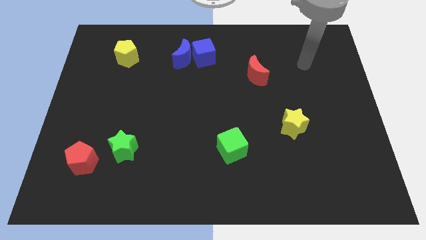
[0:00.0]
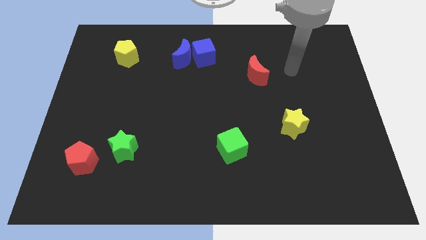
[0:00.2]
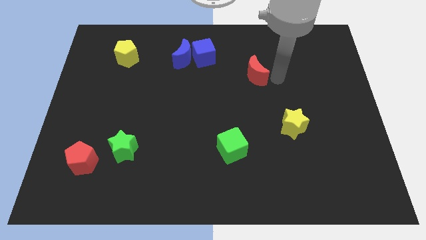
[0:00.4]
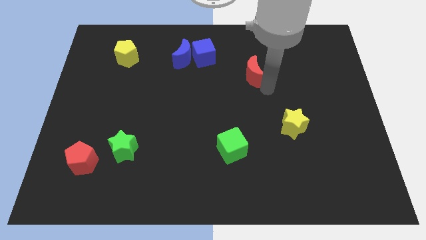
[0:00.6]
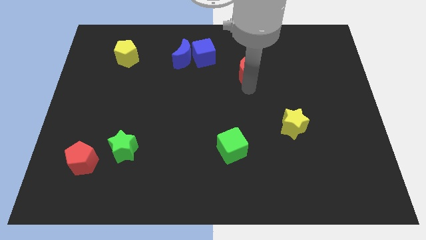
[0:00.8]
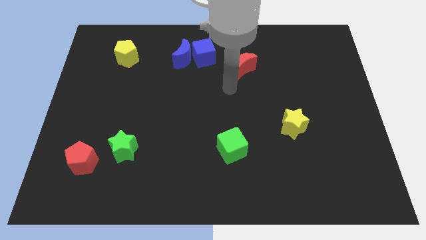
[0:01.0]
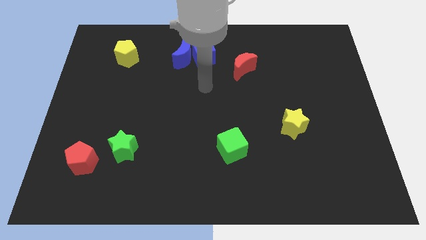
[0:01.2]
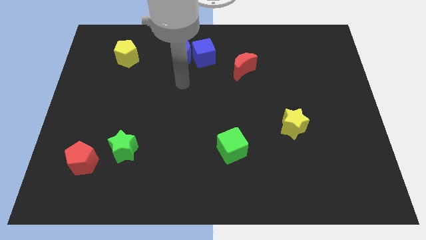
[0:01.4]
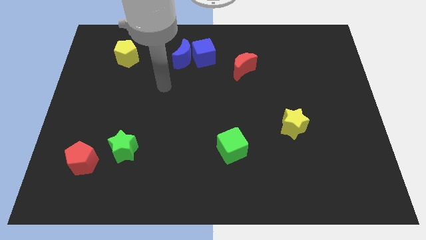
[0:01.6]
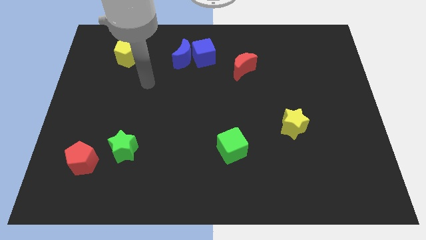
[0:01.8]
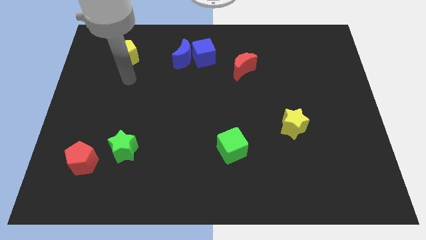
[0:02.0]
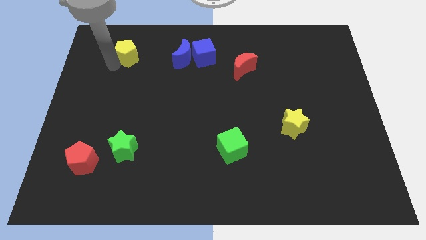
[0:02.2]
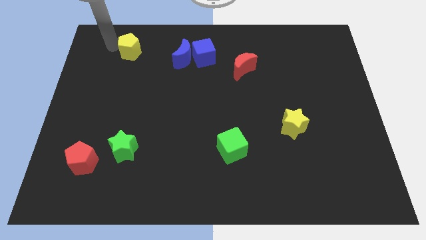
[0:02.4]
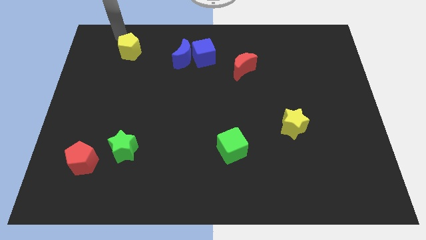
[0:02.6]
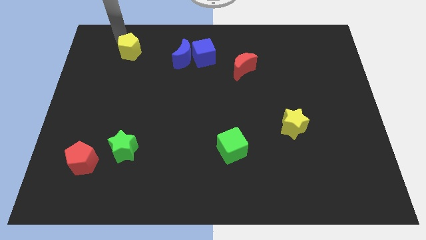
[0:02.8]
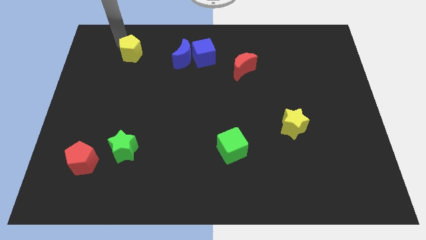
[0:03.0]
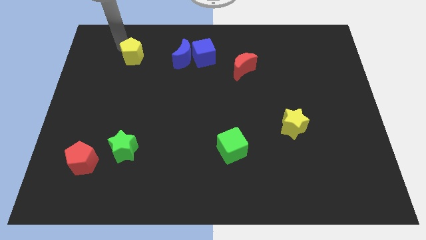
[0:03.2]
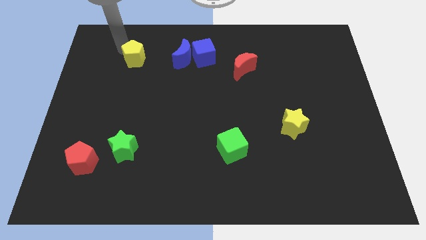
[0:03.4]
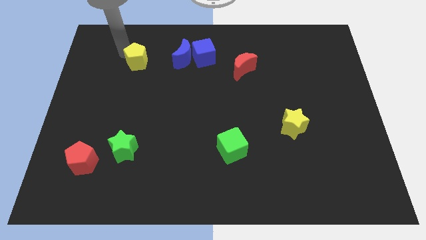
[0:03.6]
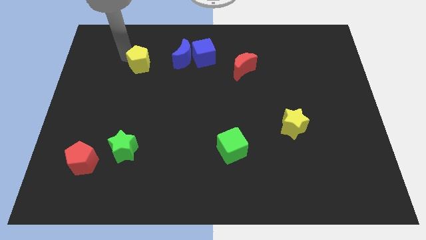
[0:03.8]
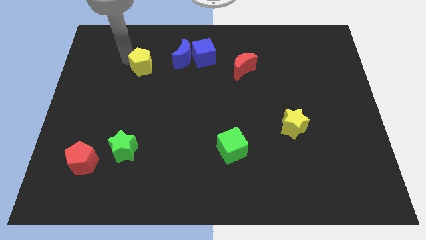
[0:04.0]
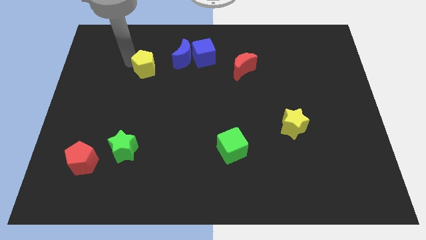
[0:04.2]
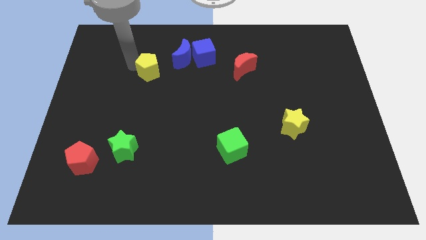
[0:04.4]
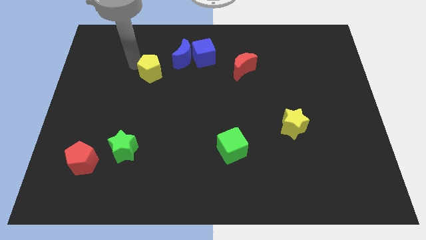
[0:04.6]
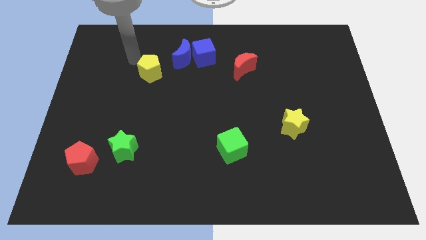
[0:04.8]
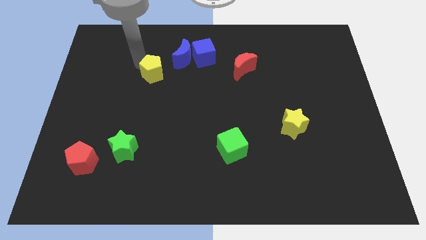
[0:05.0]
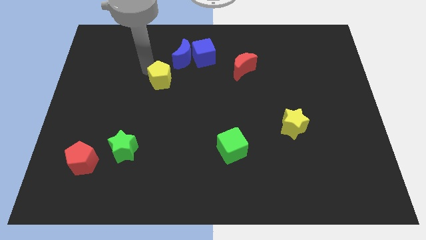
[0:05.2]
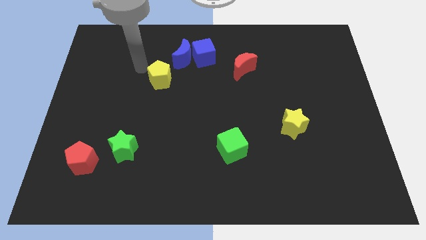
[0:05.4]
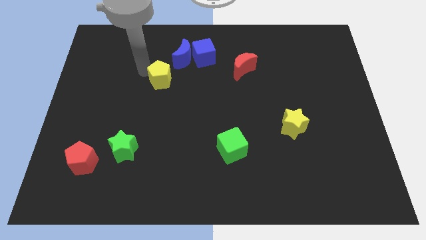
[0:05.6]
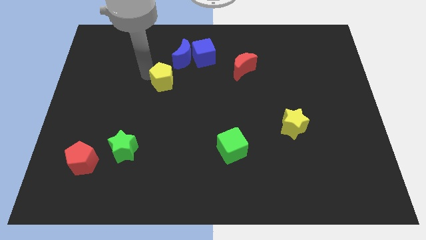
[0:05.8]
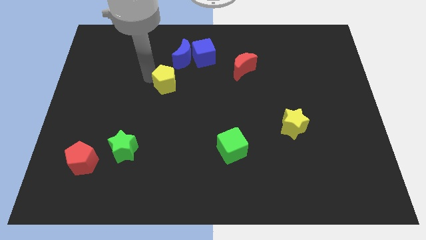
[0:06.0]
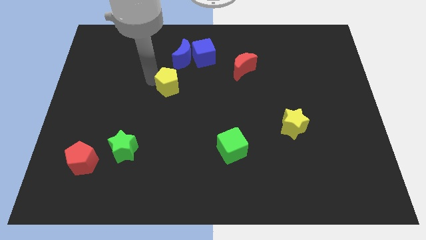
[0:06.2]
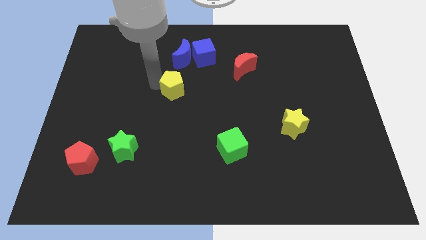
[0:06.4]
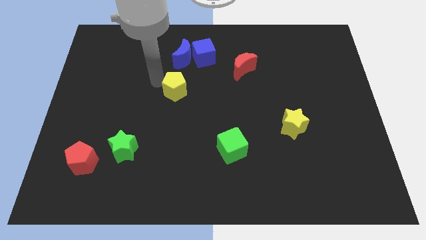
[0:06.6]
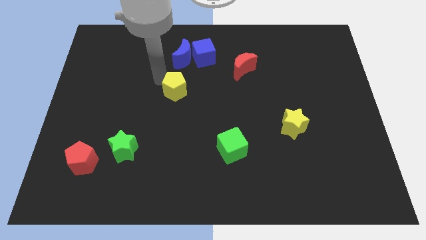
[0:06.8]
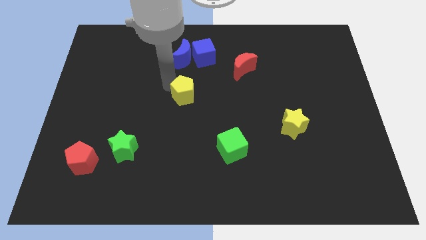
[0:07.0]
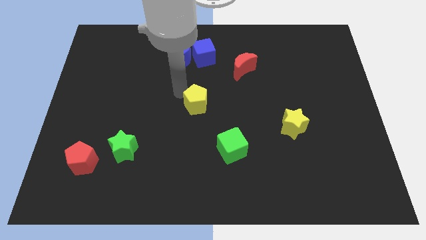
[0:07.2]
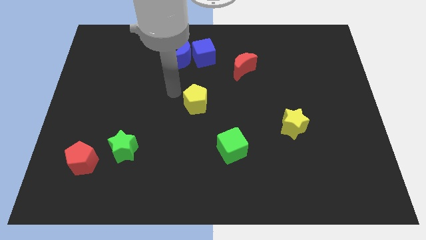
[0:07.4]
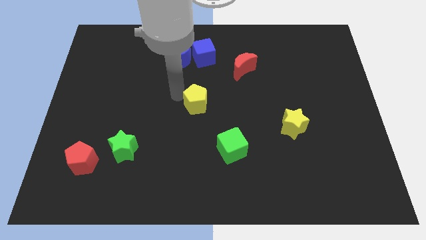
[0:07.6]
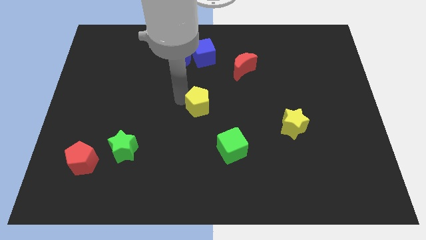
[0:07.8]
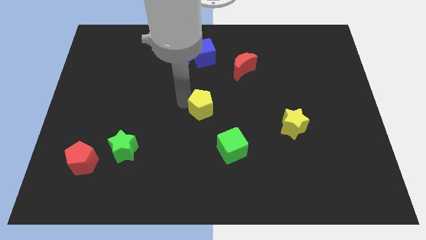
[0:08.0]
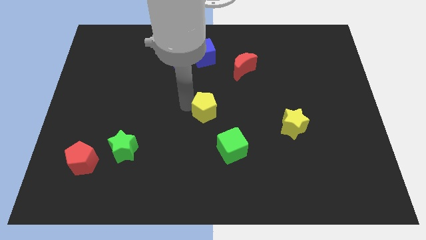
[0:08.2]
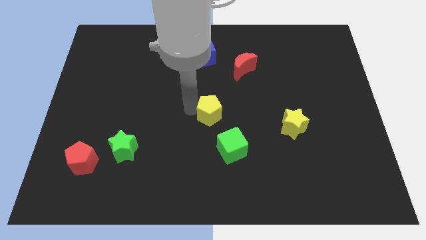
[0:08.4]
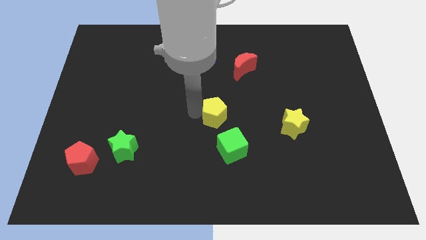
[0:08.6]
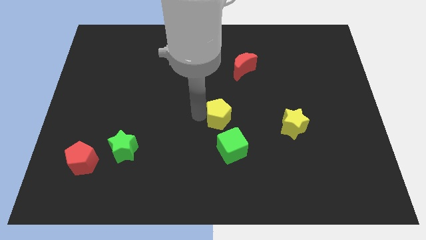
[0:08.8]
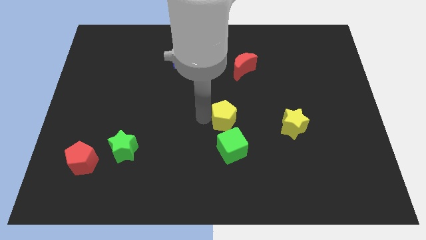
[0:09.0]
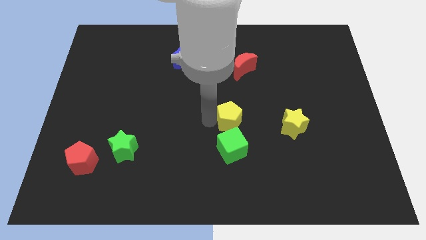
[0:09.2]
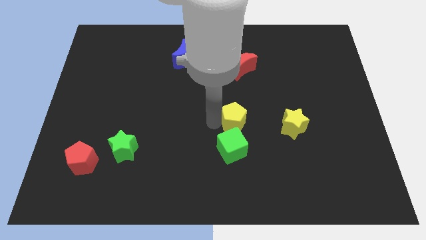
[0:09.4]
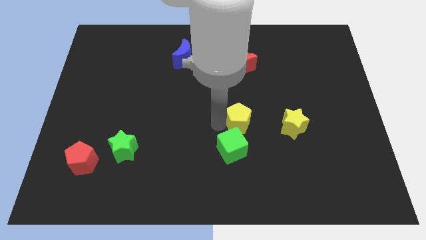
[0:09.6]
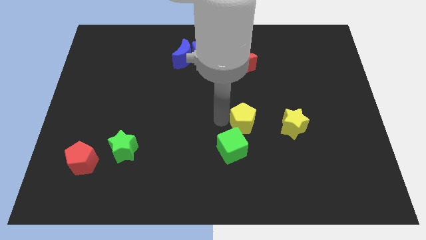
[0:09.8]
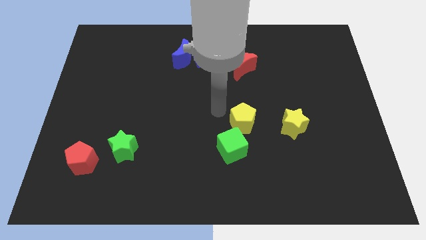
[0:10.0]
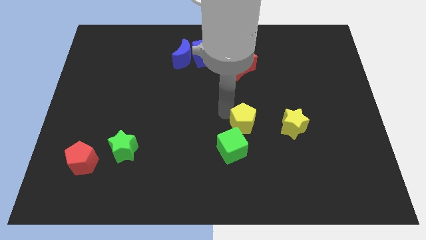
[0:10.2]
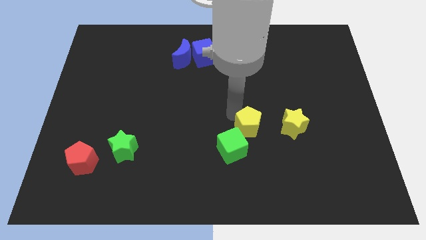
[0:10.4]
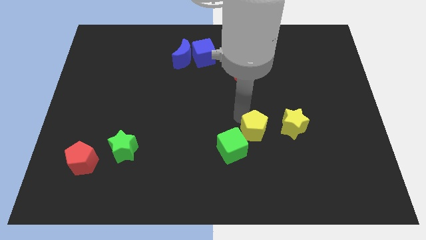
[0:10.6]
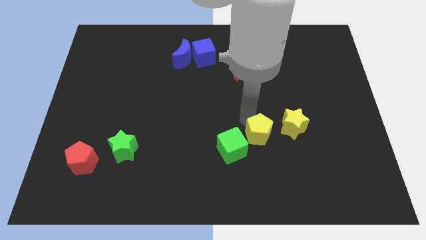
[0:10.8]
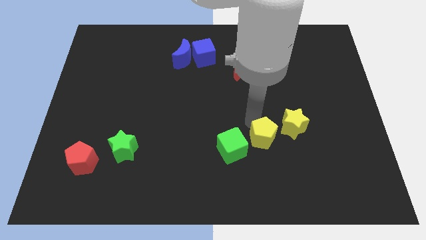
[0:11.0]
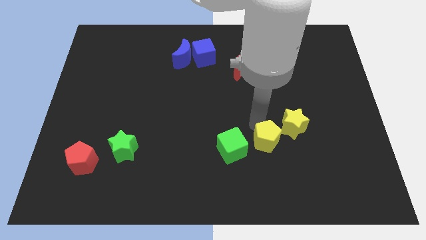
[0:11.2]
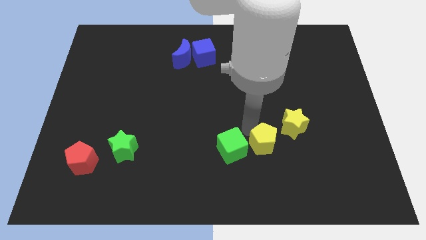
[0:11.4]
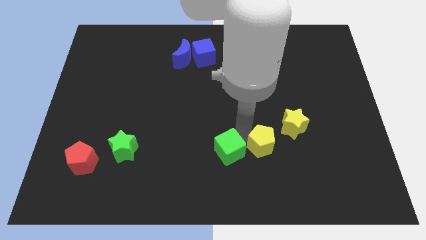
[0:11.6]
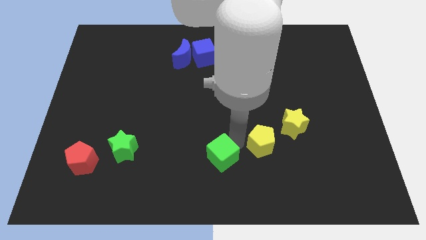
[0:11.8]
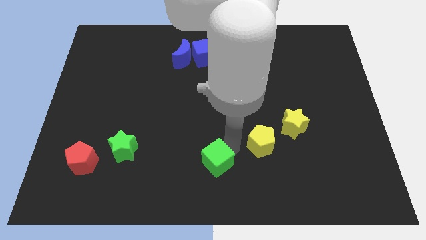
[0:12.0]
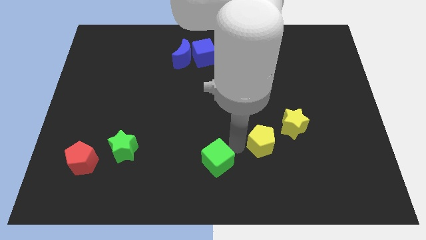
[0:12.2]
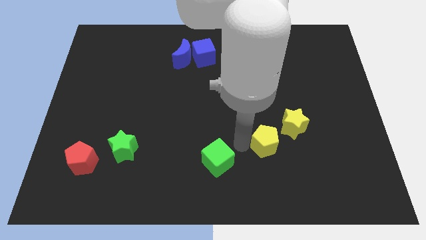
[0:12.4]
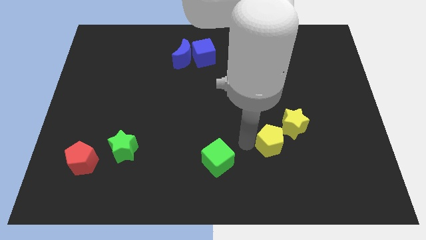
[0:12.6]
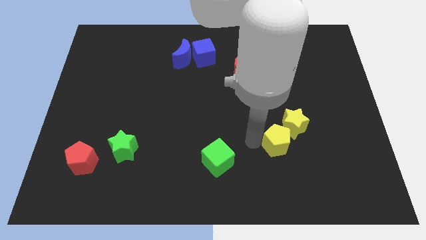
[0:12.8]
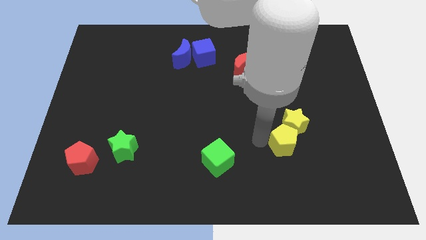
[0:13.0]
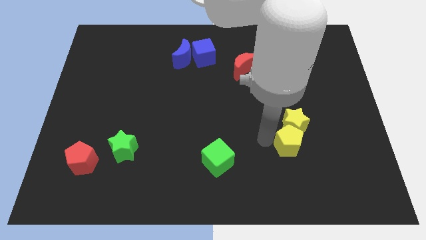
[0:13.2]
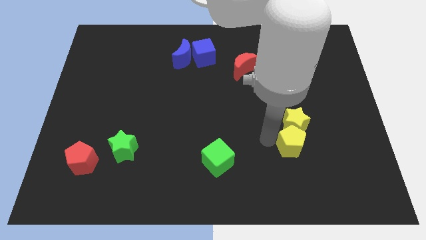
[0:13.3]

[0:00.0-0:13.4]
put the yellow pentagon diagonally down and to the right of the yellow star
